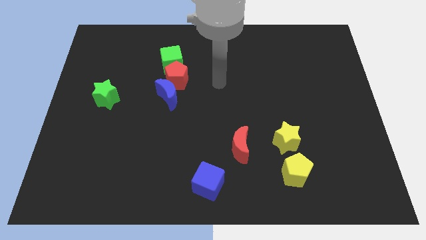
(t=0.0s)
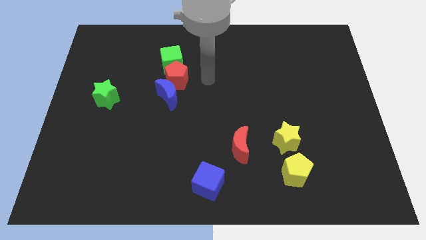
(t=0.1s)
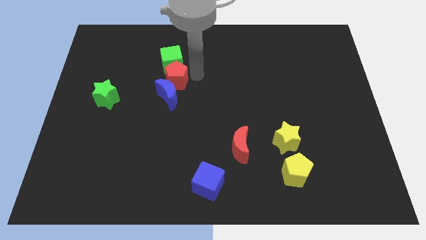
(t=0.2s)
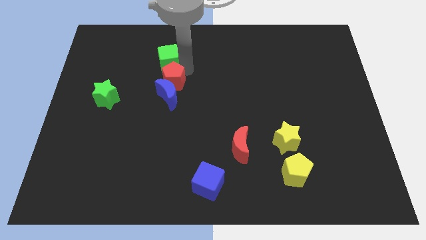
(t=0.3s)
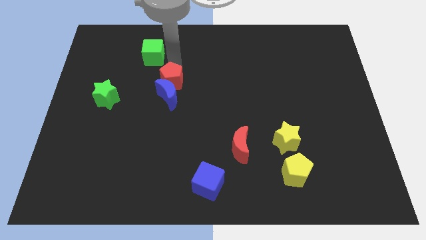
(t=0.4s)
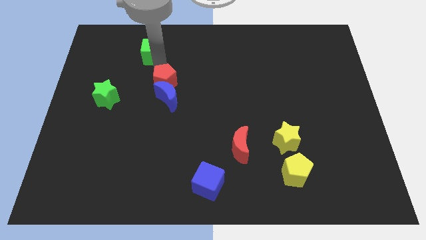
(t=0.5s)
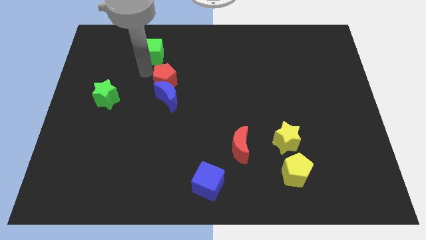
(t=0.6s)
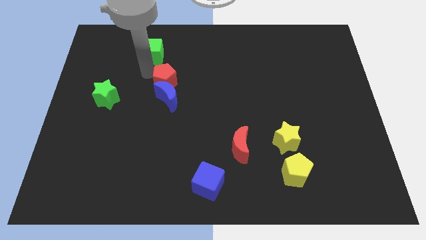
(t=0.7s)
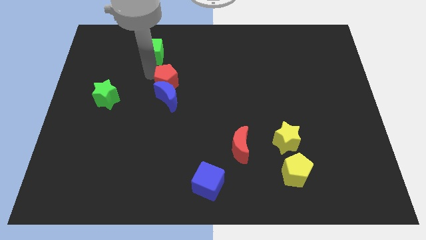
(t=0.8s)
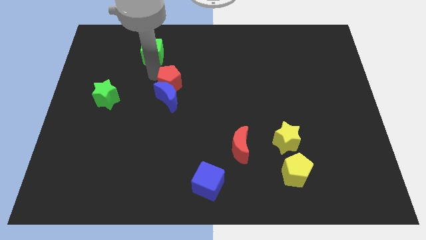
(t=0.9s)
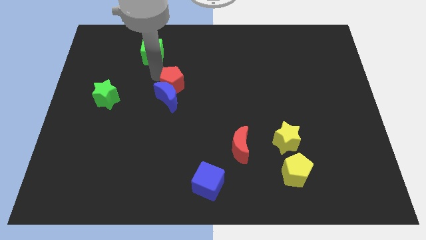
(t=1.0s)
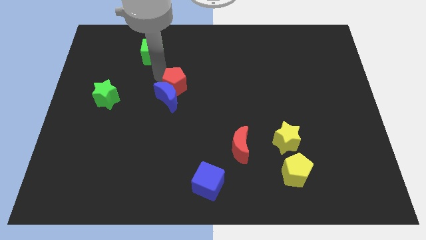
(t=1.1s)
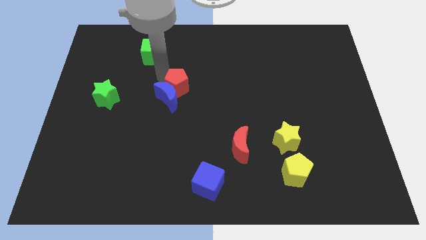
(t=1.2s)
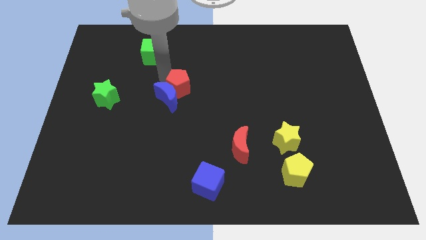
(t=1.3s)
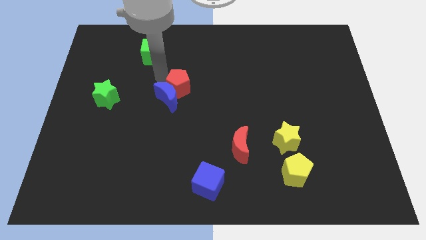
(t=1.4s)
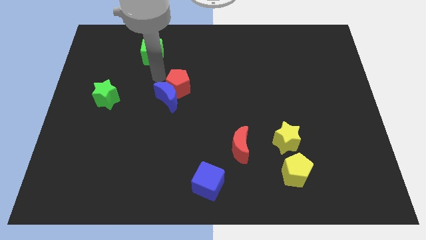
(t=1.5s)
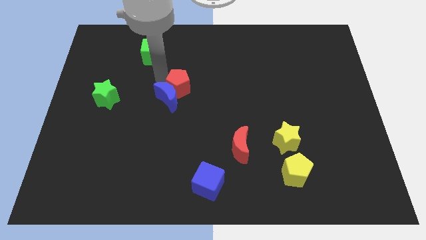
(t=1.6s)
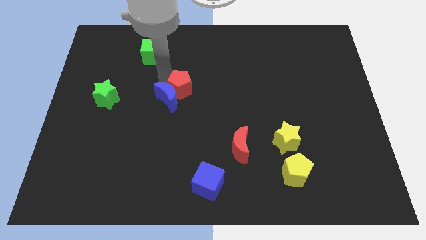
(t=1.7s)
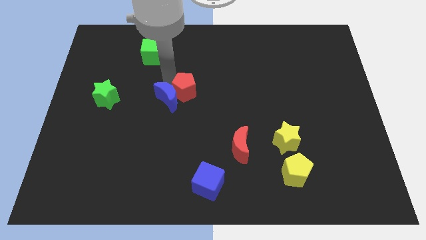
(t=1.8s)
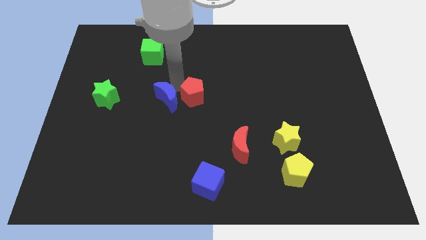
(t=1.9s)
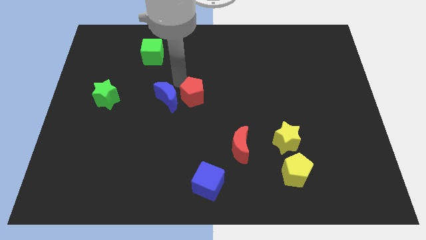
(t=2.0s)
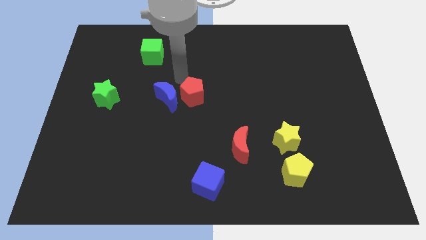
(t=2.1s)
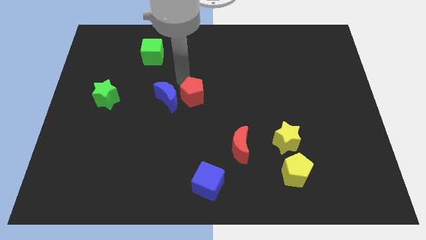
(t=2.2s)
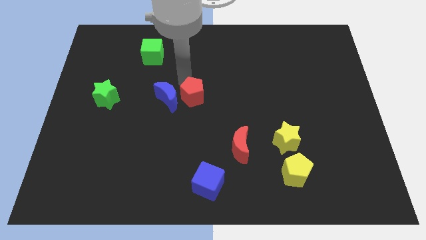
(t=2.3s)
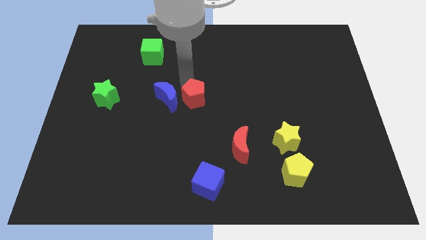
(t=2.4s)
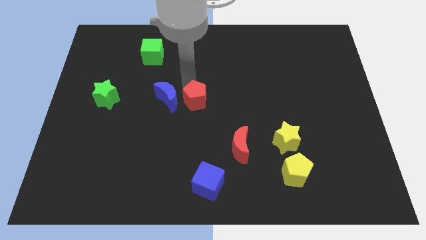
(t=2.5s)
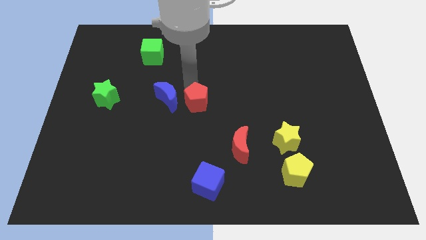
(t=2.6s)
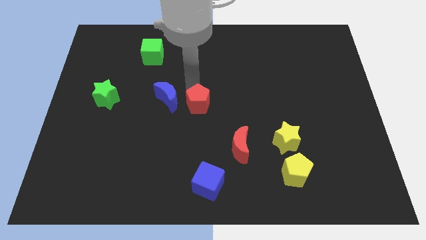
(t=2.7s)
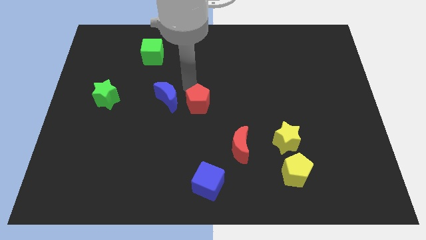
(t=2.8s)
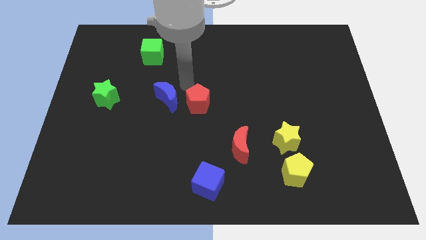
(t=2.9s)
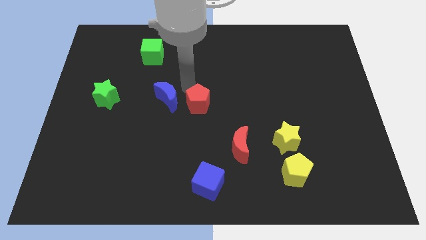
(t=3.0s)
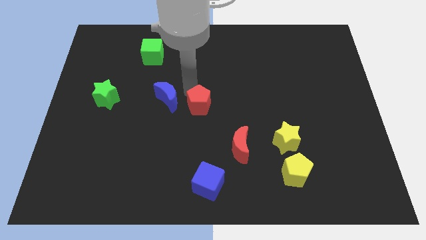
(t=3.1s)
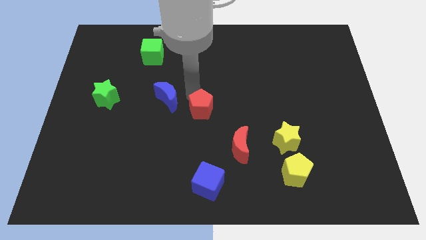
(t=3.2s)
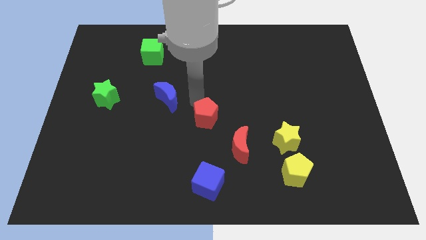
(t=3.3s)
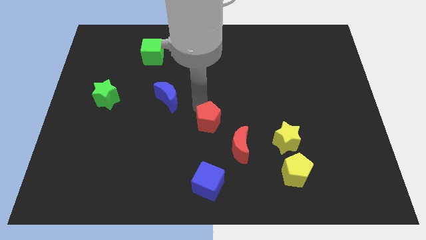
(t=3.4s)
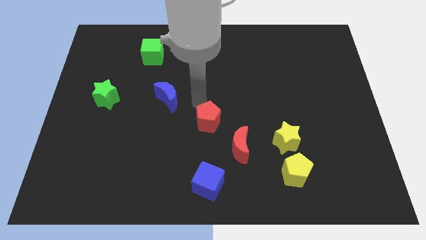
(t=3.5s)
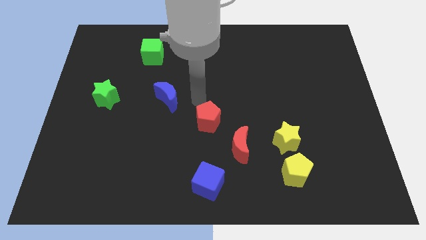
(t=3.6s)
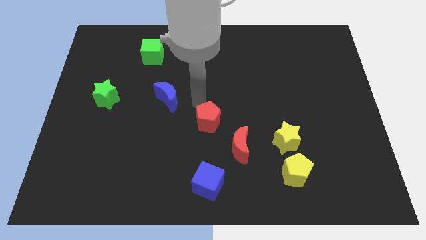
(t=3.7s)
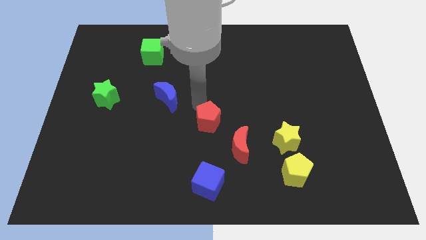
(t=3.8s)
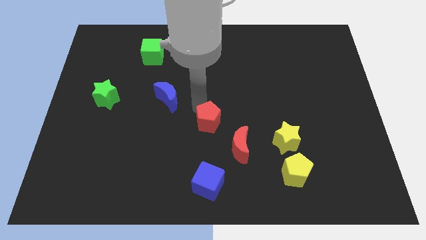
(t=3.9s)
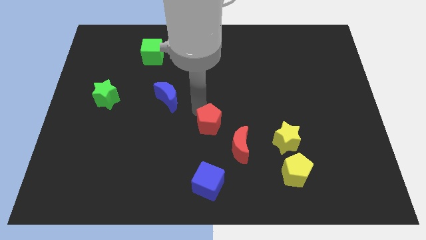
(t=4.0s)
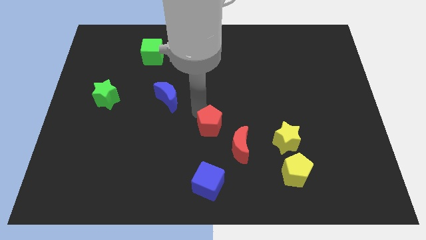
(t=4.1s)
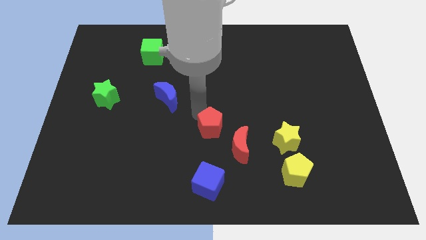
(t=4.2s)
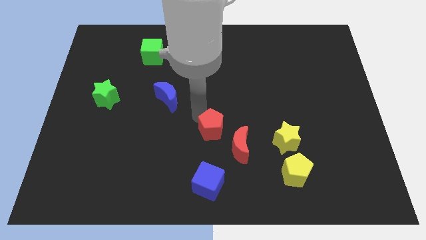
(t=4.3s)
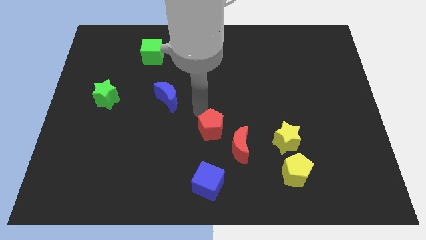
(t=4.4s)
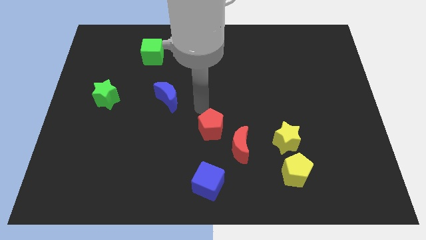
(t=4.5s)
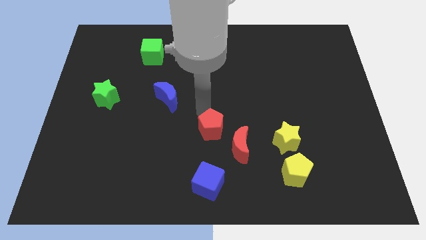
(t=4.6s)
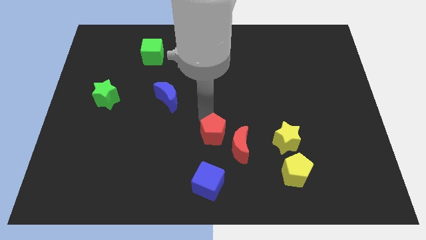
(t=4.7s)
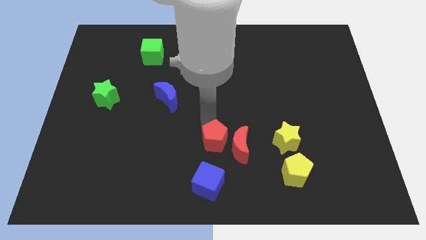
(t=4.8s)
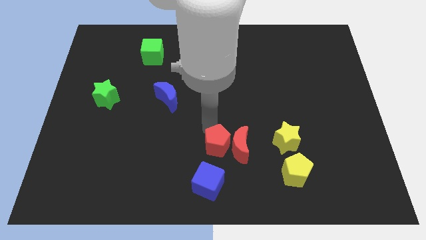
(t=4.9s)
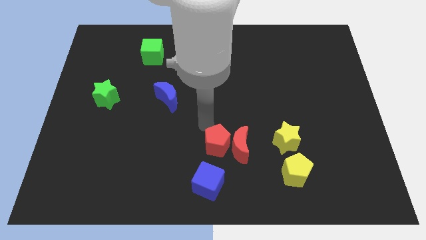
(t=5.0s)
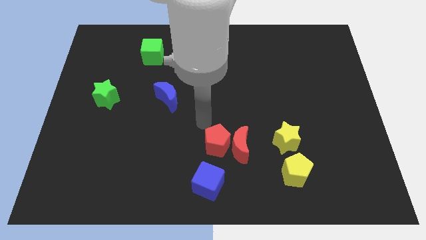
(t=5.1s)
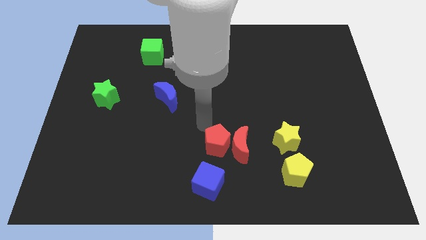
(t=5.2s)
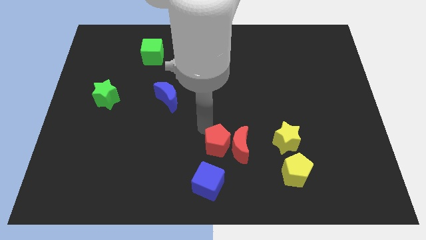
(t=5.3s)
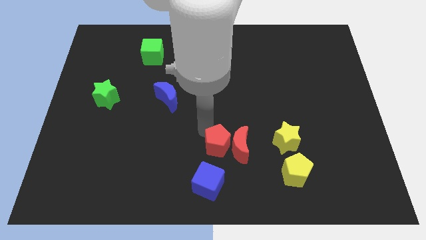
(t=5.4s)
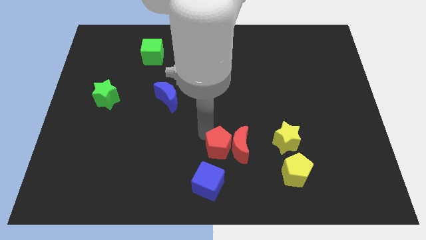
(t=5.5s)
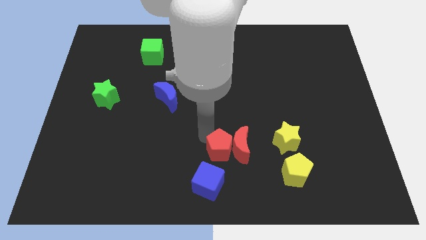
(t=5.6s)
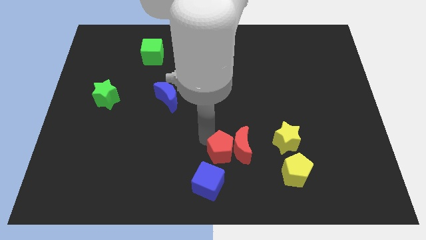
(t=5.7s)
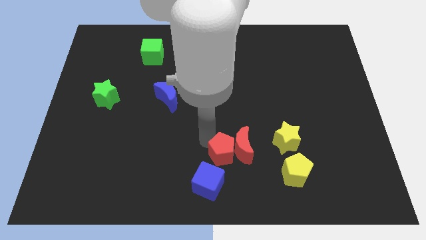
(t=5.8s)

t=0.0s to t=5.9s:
push the red pentagon to the bottom side
